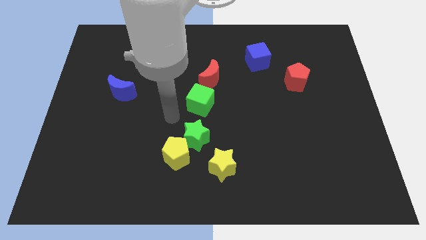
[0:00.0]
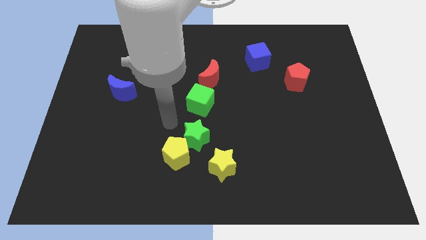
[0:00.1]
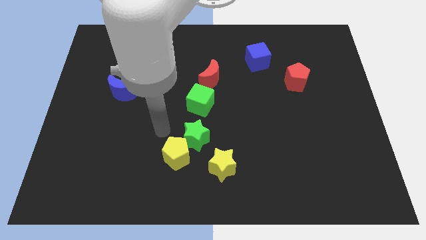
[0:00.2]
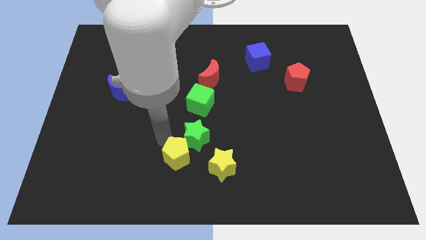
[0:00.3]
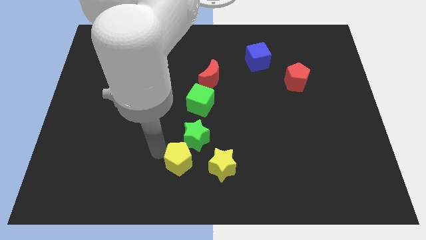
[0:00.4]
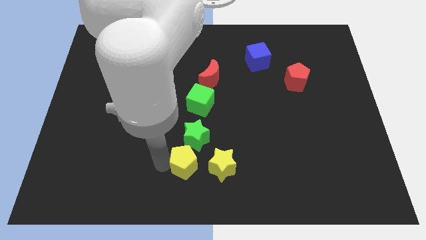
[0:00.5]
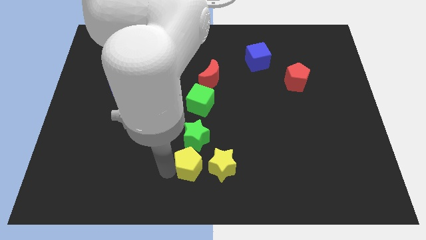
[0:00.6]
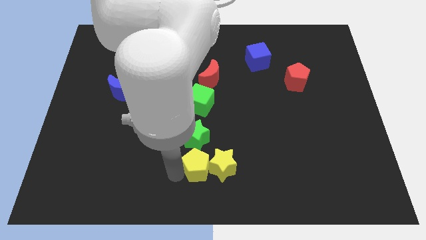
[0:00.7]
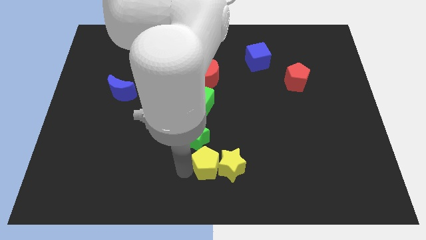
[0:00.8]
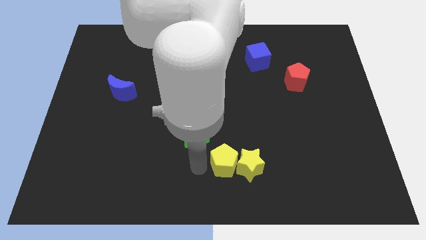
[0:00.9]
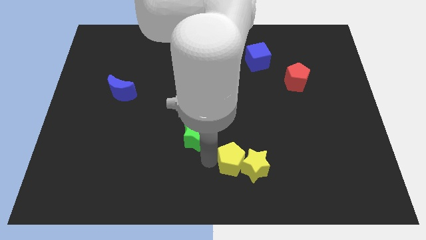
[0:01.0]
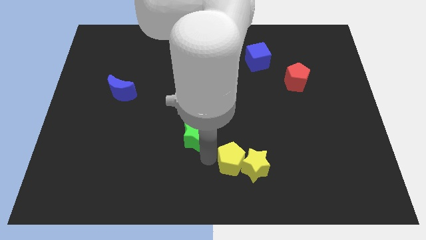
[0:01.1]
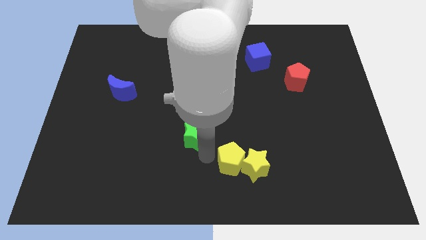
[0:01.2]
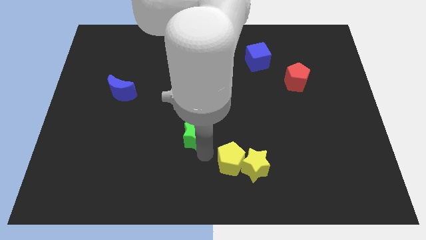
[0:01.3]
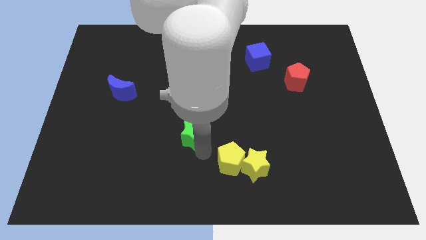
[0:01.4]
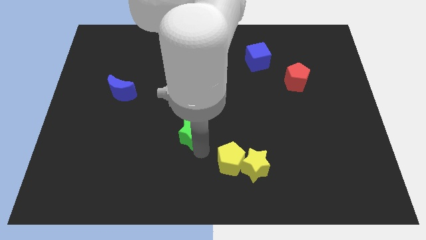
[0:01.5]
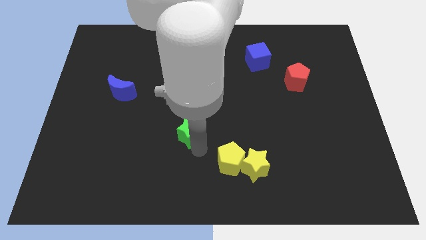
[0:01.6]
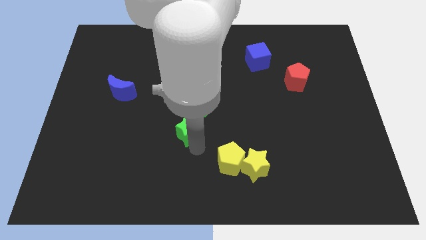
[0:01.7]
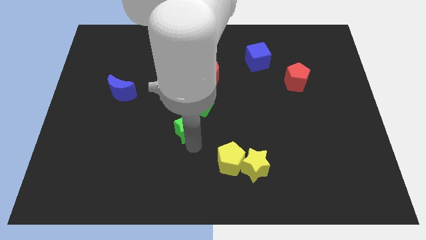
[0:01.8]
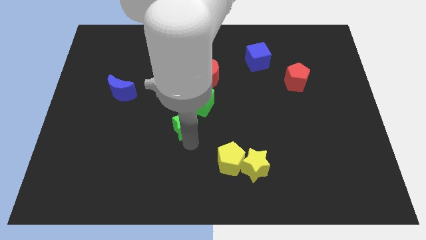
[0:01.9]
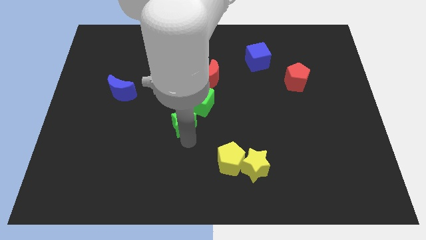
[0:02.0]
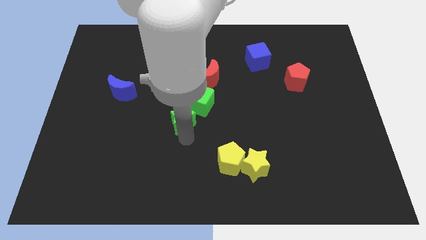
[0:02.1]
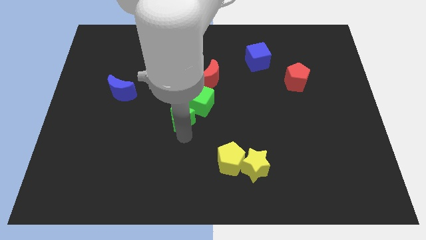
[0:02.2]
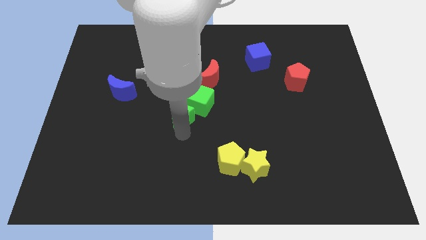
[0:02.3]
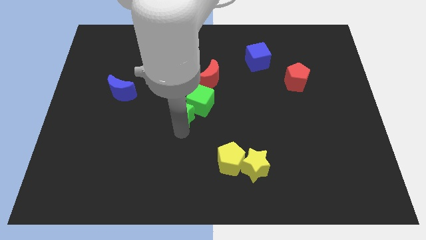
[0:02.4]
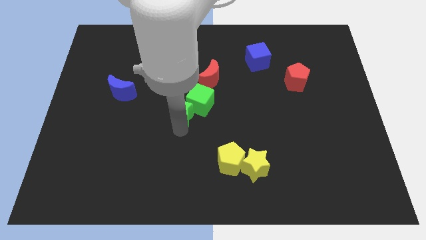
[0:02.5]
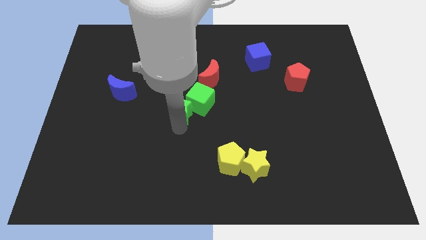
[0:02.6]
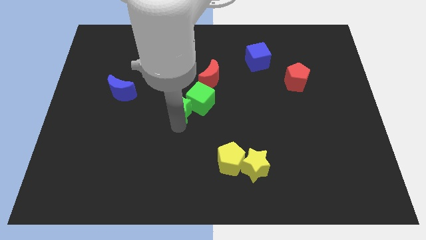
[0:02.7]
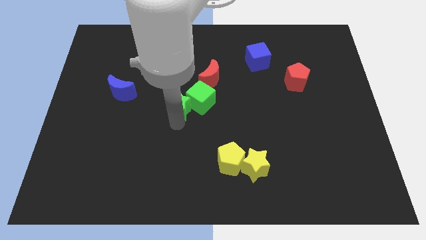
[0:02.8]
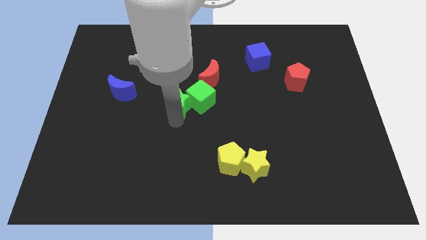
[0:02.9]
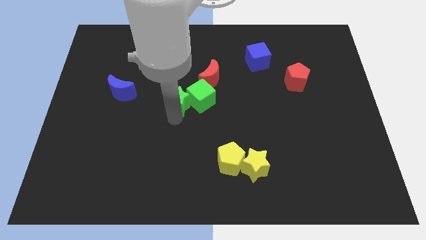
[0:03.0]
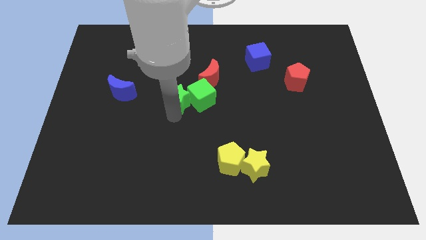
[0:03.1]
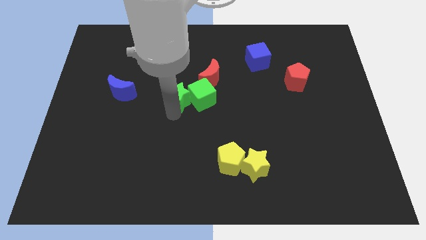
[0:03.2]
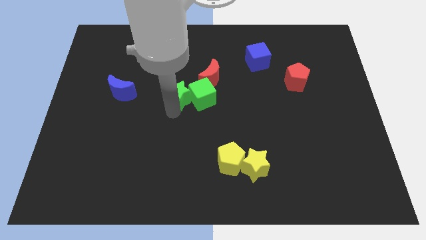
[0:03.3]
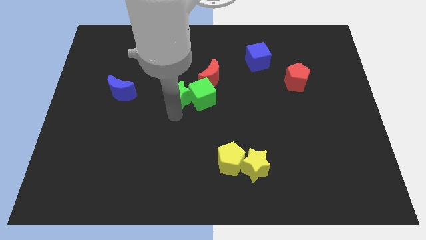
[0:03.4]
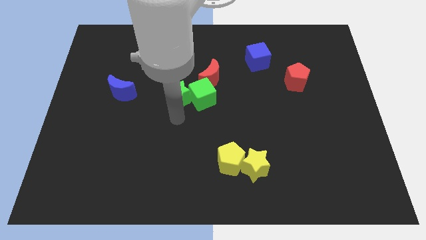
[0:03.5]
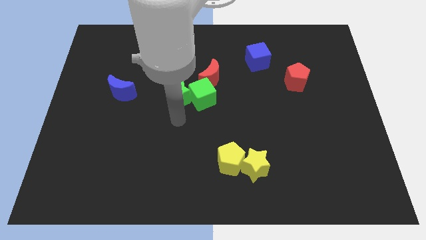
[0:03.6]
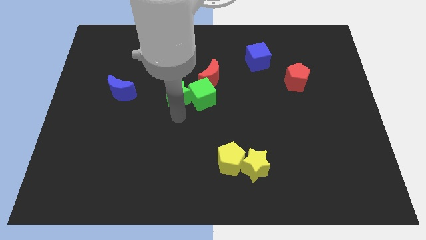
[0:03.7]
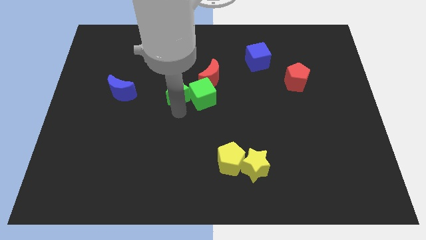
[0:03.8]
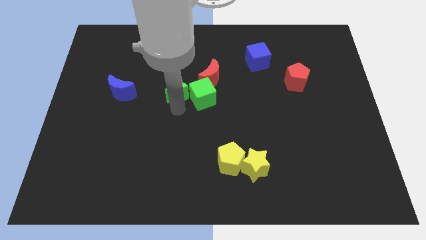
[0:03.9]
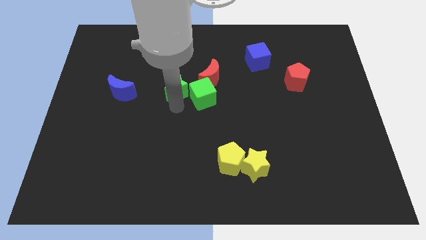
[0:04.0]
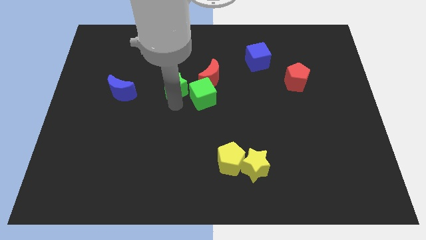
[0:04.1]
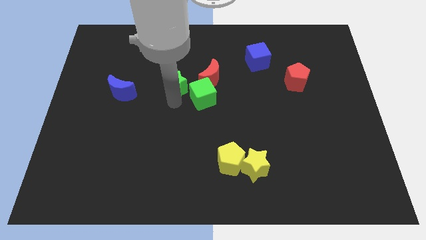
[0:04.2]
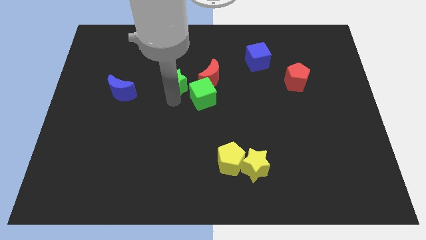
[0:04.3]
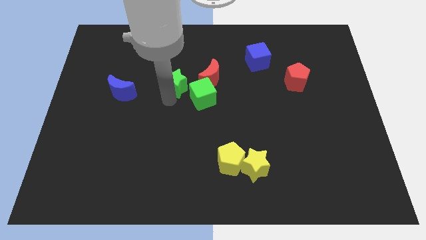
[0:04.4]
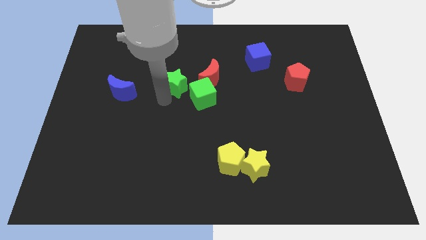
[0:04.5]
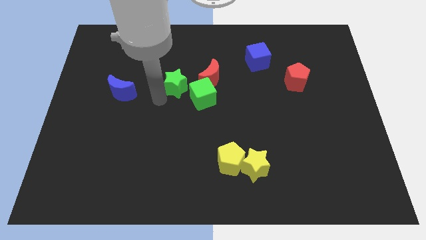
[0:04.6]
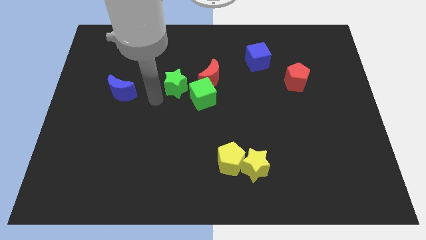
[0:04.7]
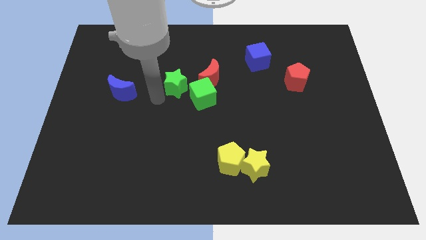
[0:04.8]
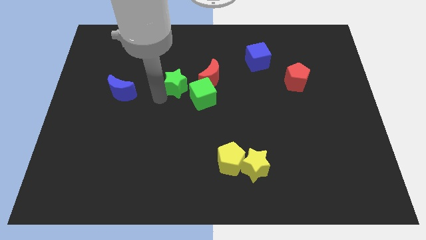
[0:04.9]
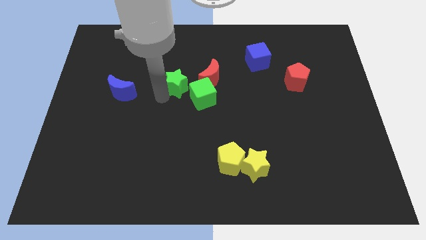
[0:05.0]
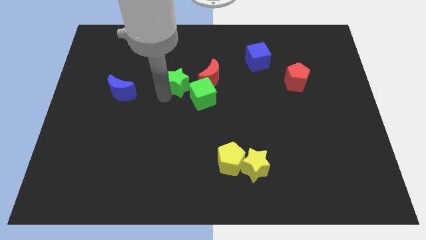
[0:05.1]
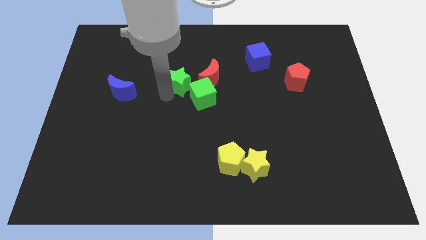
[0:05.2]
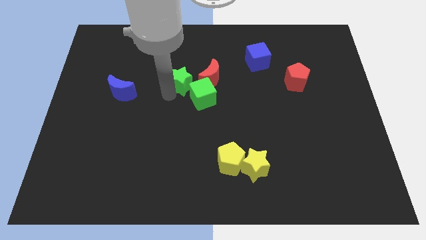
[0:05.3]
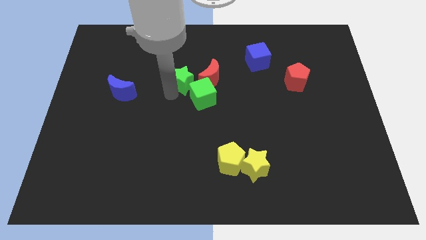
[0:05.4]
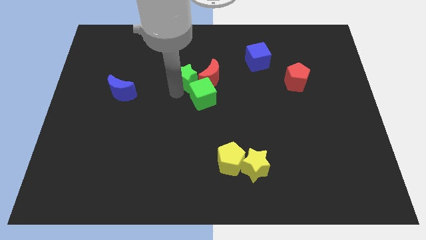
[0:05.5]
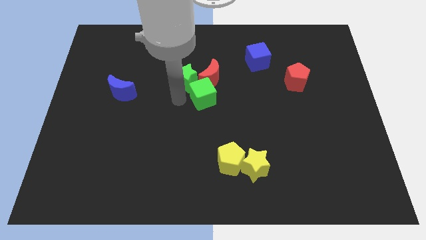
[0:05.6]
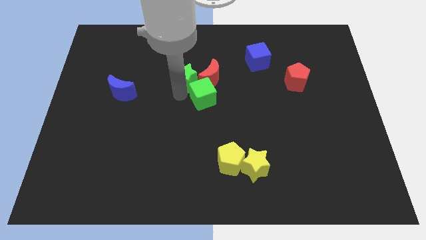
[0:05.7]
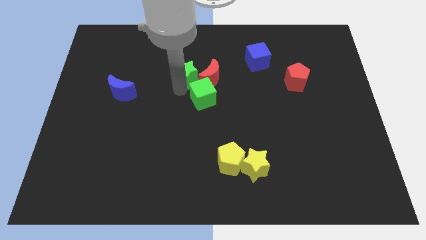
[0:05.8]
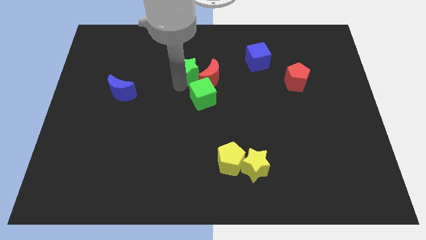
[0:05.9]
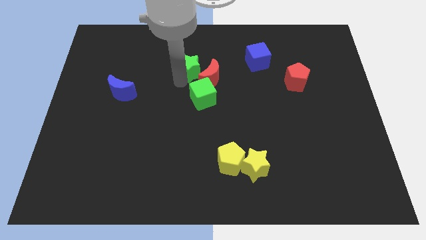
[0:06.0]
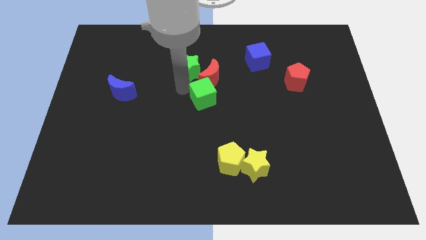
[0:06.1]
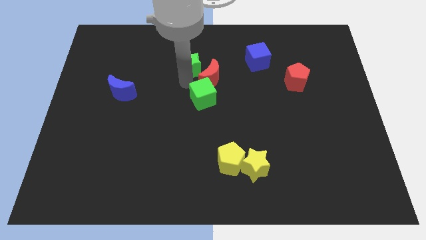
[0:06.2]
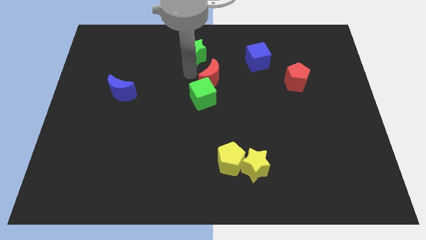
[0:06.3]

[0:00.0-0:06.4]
move the green star to the top side
